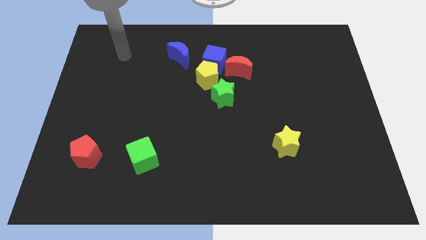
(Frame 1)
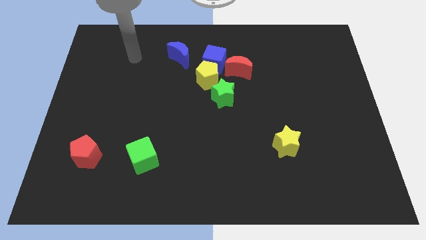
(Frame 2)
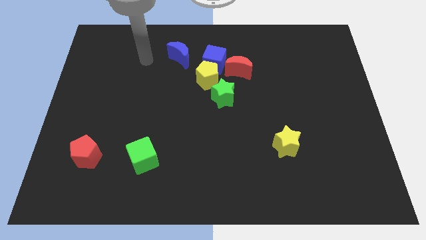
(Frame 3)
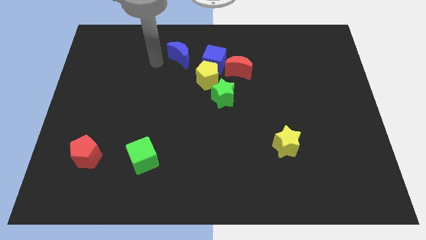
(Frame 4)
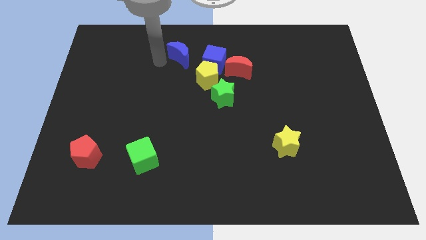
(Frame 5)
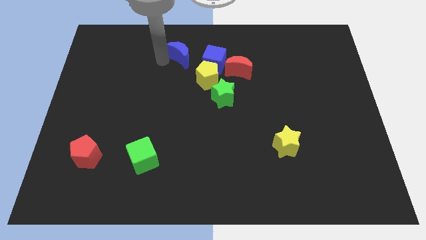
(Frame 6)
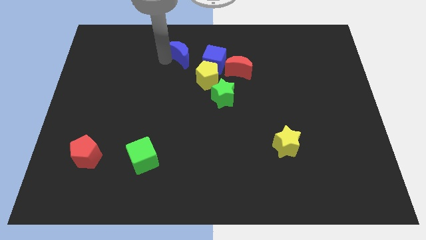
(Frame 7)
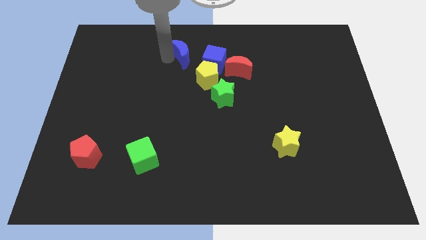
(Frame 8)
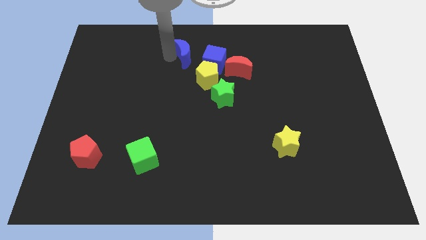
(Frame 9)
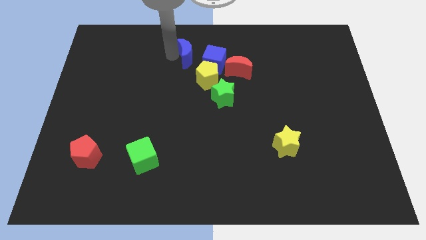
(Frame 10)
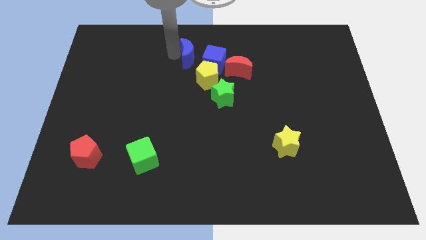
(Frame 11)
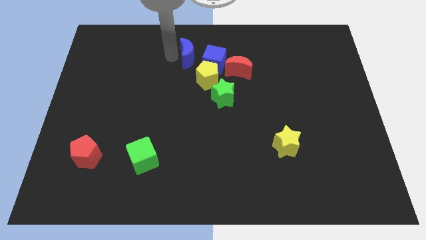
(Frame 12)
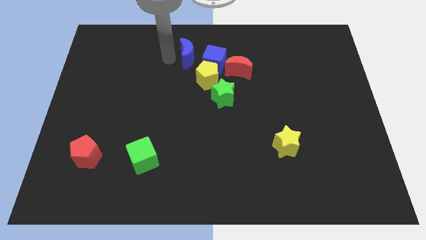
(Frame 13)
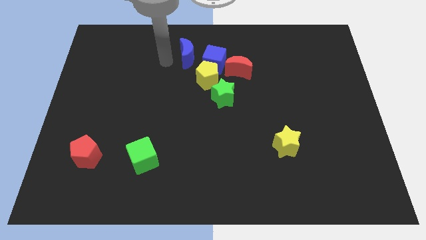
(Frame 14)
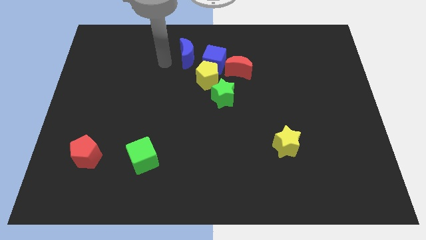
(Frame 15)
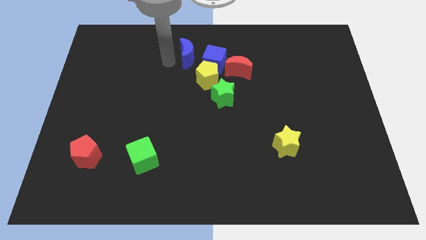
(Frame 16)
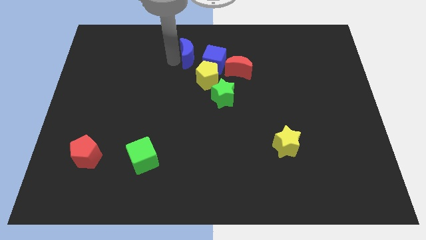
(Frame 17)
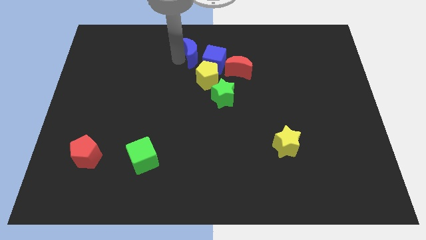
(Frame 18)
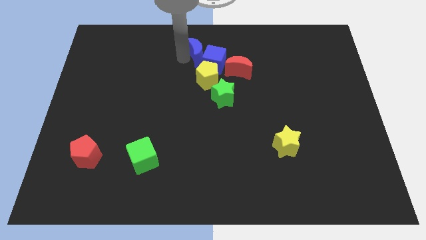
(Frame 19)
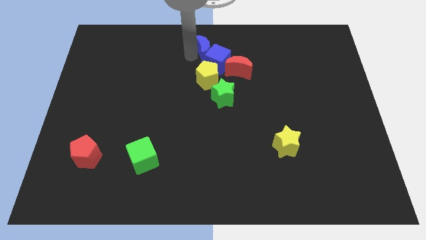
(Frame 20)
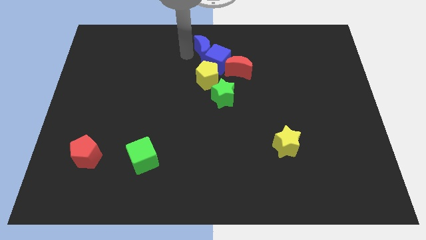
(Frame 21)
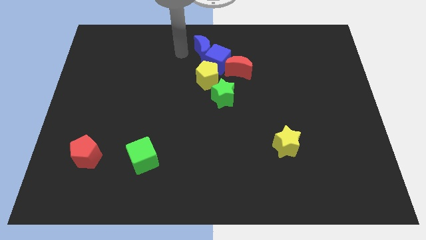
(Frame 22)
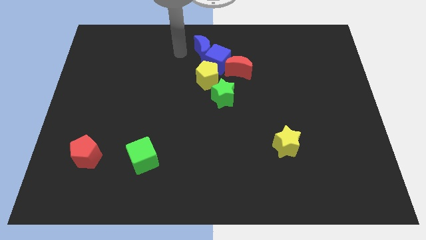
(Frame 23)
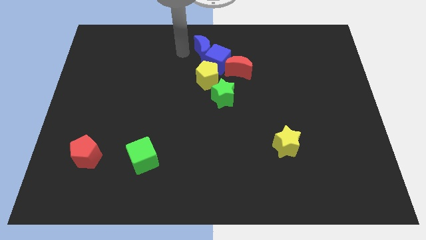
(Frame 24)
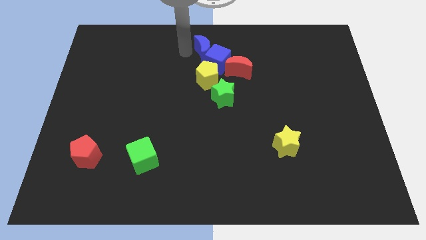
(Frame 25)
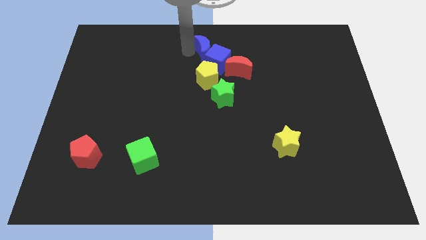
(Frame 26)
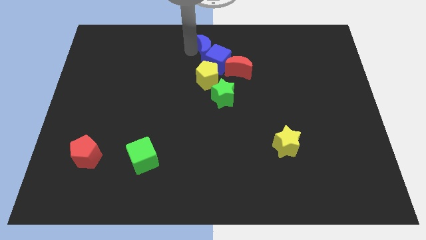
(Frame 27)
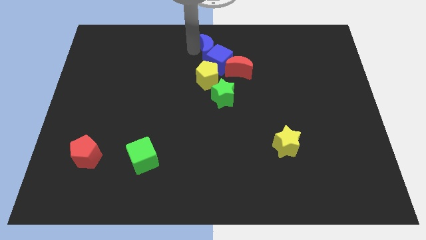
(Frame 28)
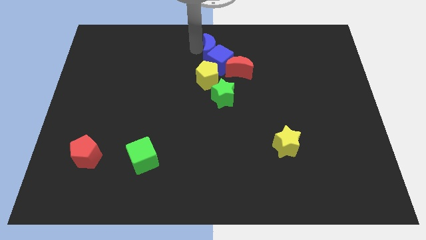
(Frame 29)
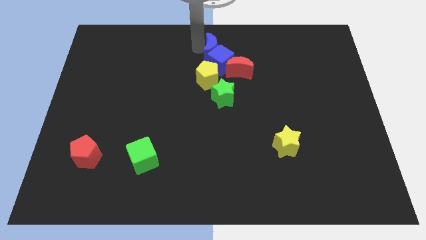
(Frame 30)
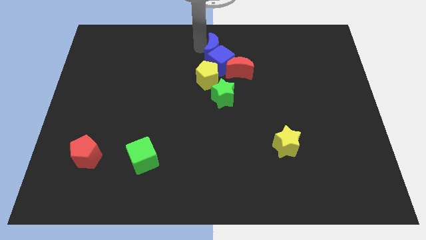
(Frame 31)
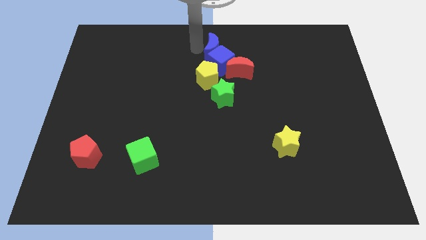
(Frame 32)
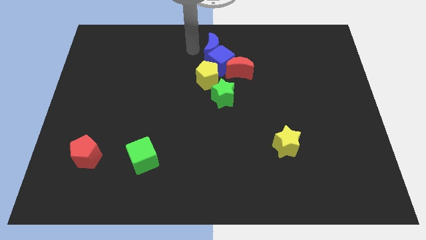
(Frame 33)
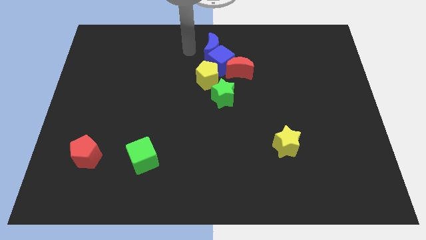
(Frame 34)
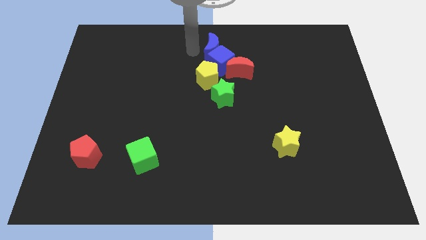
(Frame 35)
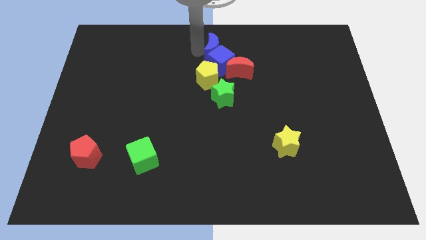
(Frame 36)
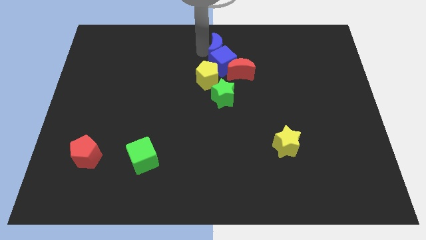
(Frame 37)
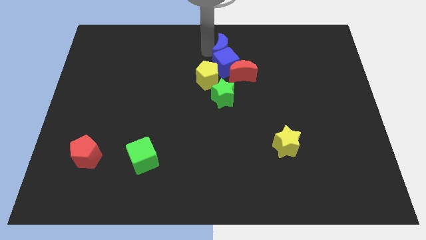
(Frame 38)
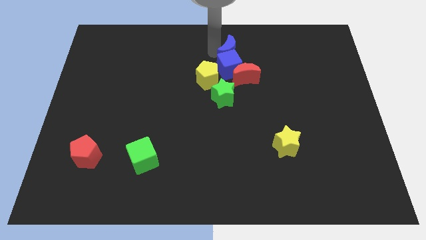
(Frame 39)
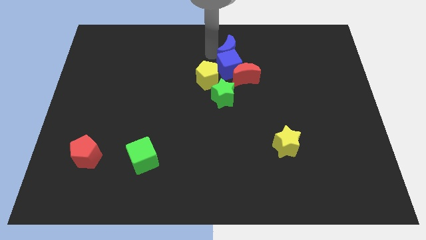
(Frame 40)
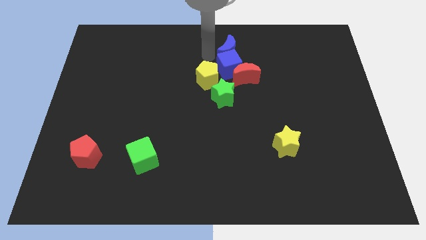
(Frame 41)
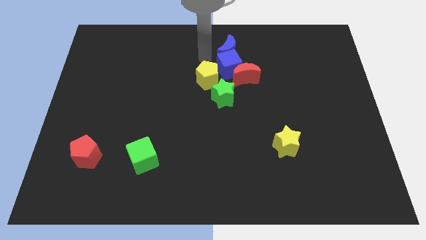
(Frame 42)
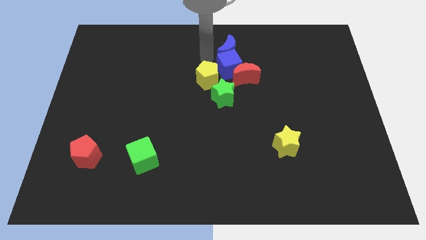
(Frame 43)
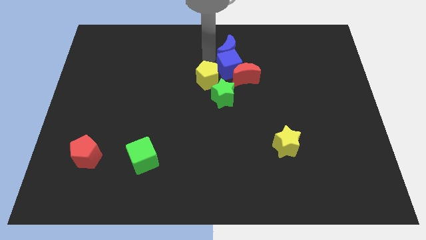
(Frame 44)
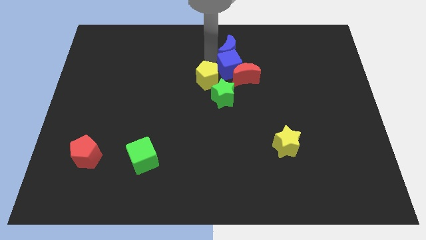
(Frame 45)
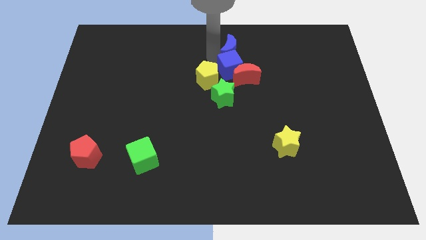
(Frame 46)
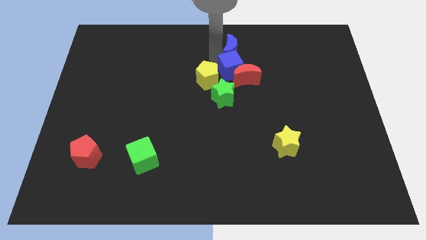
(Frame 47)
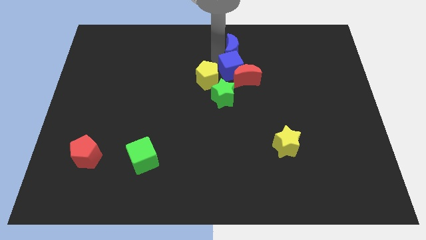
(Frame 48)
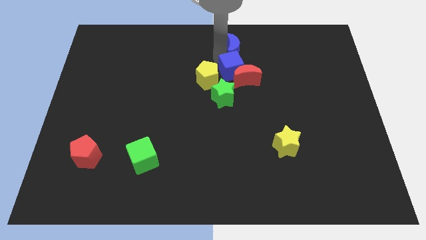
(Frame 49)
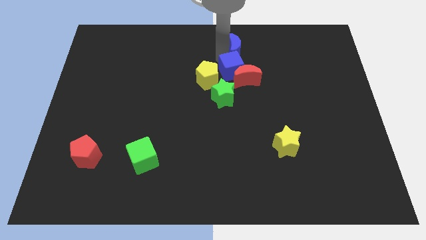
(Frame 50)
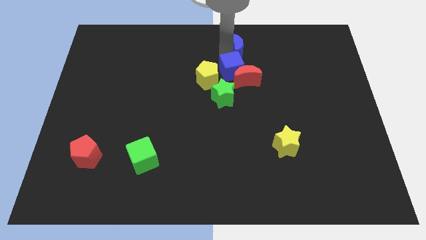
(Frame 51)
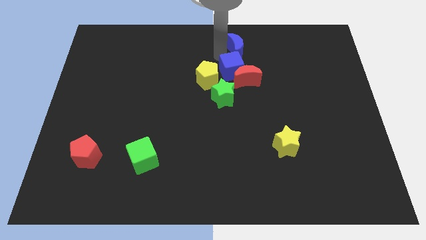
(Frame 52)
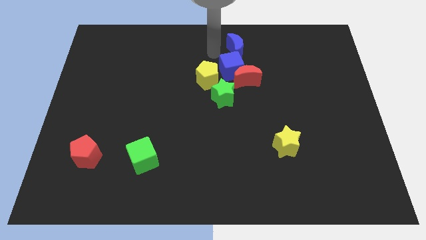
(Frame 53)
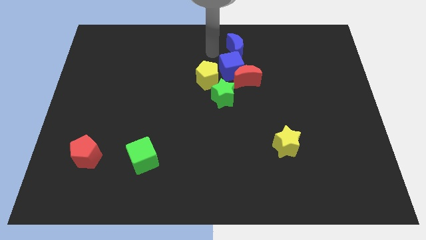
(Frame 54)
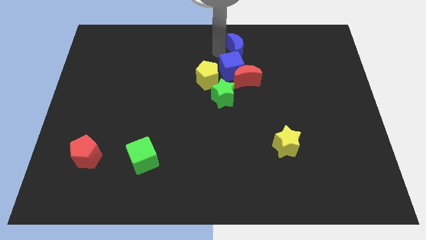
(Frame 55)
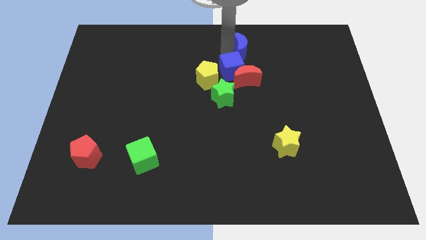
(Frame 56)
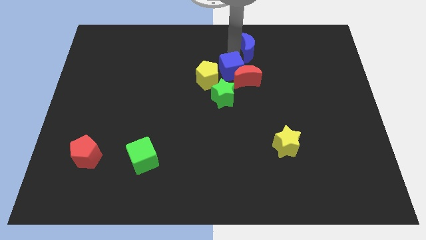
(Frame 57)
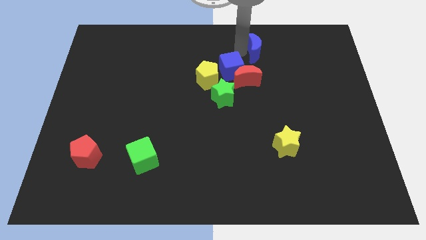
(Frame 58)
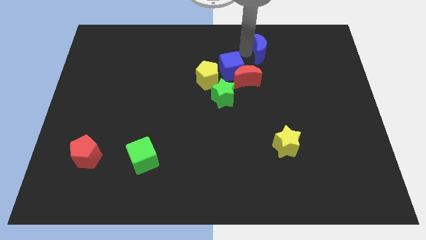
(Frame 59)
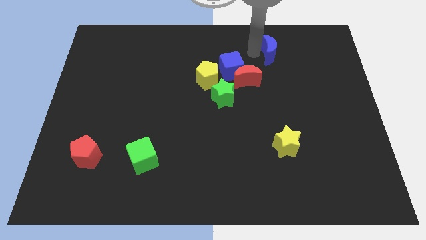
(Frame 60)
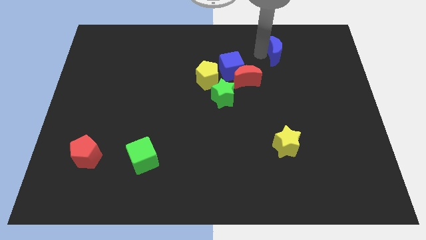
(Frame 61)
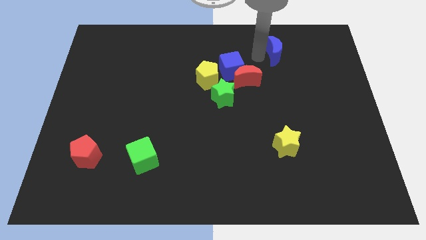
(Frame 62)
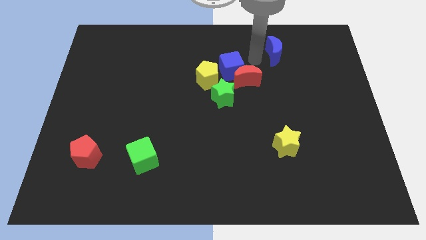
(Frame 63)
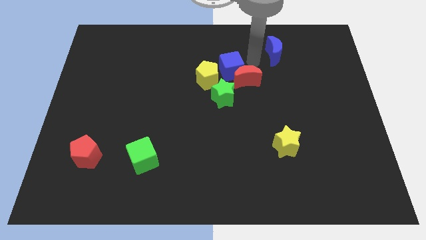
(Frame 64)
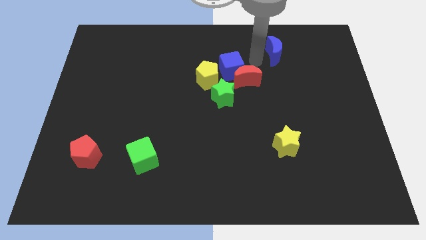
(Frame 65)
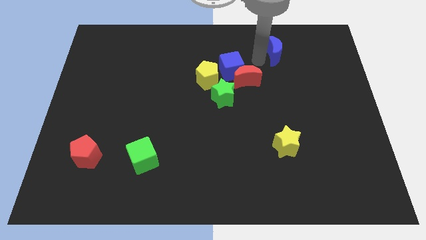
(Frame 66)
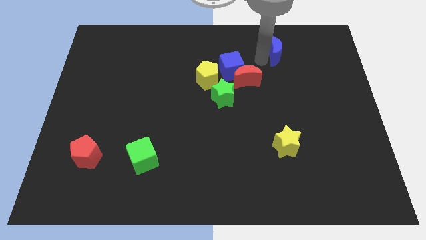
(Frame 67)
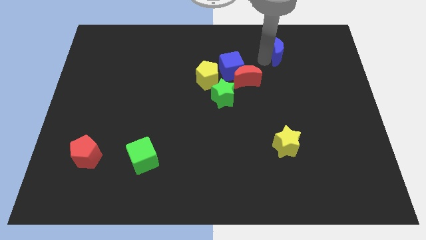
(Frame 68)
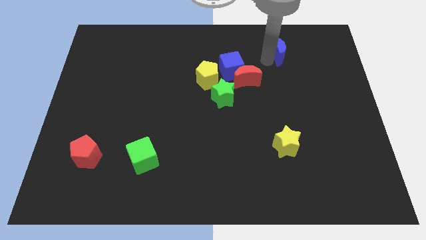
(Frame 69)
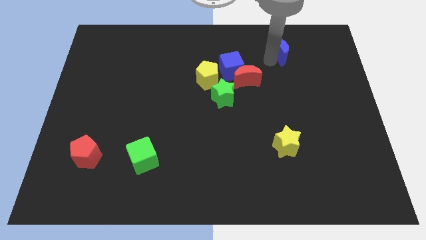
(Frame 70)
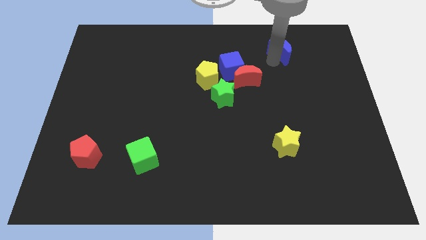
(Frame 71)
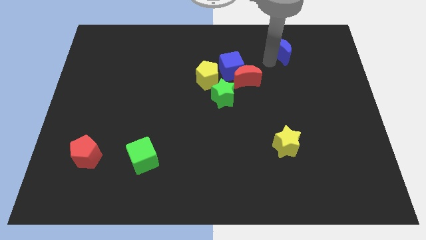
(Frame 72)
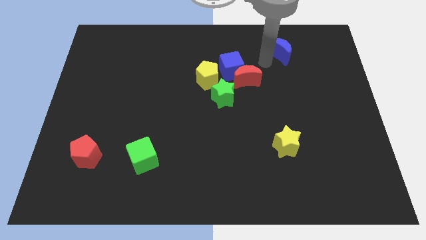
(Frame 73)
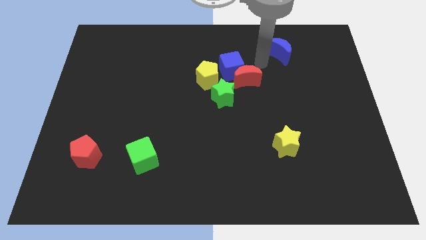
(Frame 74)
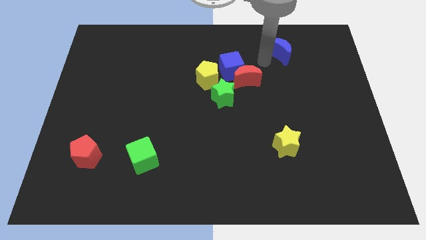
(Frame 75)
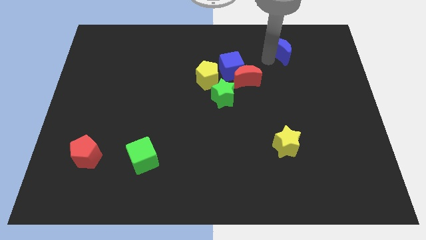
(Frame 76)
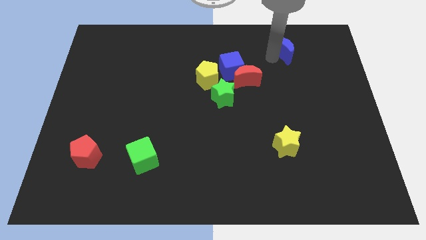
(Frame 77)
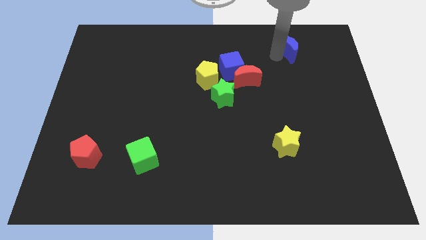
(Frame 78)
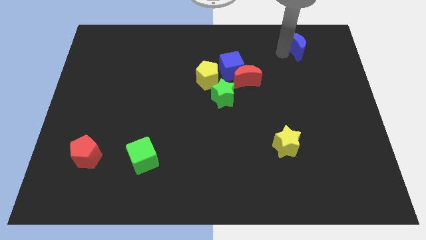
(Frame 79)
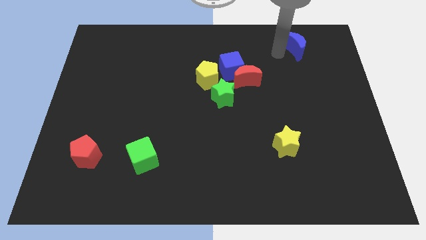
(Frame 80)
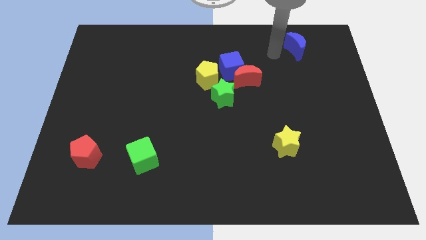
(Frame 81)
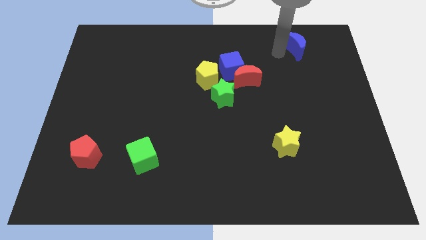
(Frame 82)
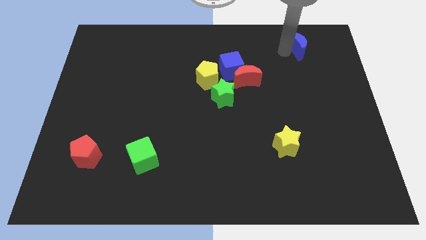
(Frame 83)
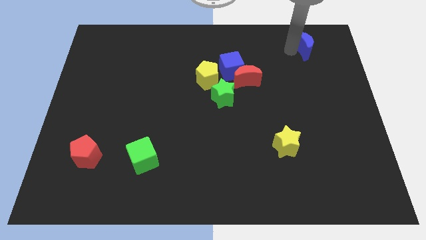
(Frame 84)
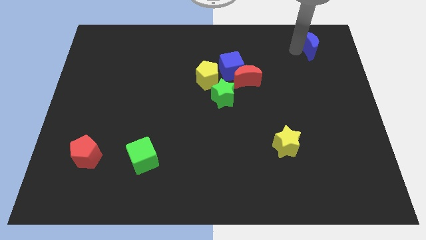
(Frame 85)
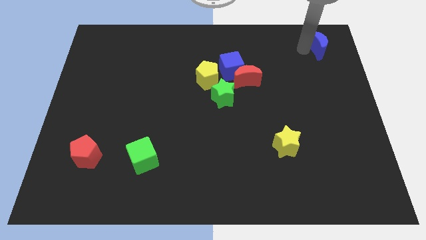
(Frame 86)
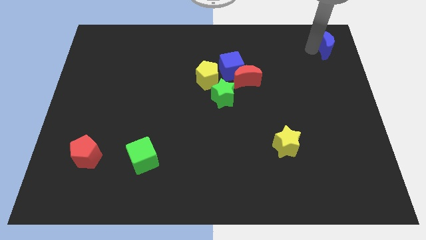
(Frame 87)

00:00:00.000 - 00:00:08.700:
push the blue moon to the top right corner
